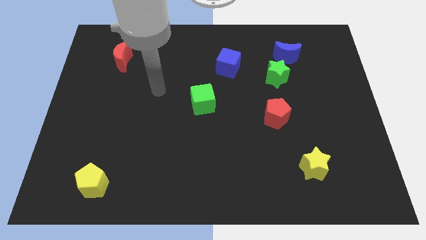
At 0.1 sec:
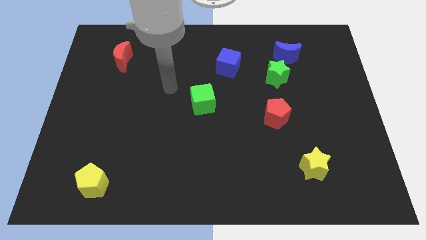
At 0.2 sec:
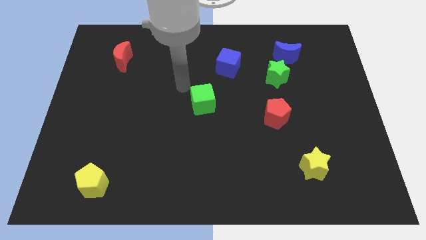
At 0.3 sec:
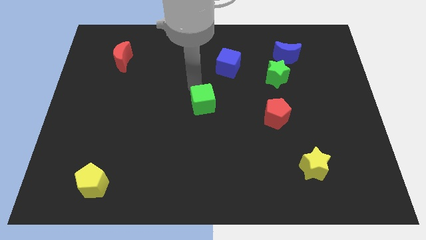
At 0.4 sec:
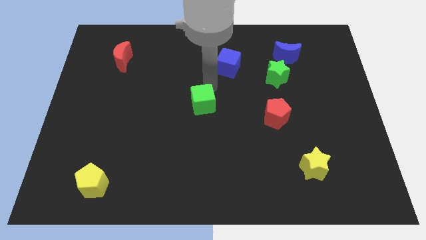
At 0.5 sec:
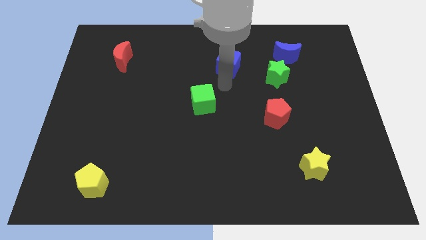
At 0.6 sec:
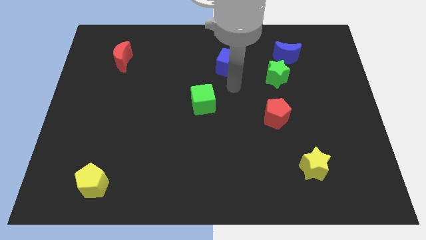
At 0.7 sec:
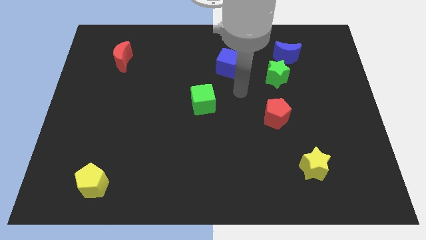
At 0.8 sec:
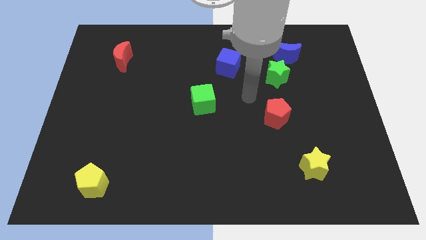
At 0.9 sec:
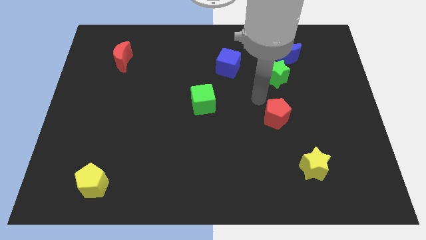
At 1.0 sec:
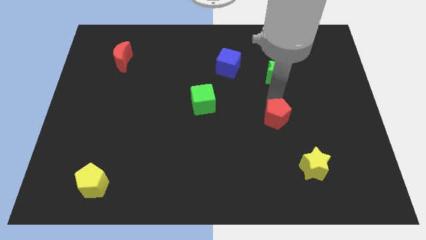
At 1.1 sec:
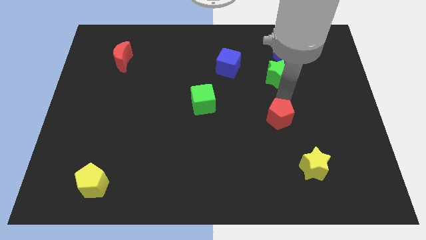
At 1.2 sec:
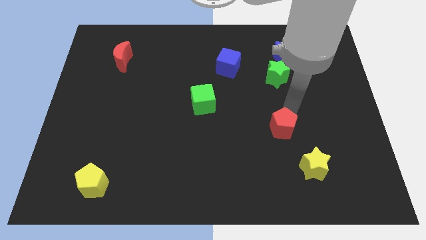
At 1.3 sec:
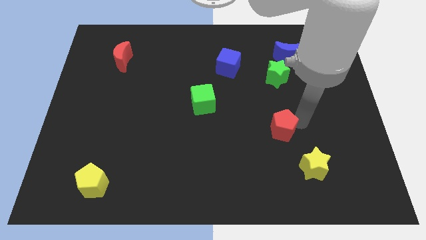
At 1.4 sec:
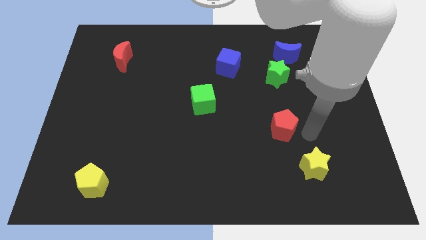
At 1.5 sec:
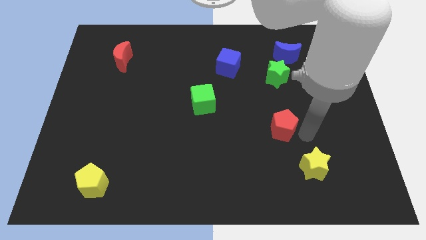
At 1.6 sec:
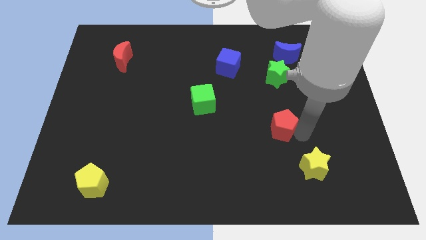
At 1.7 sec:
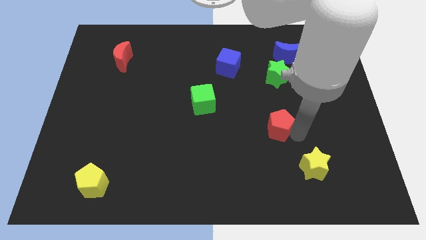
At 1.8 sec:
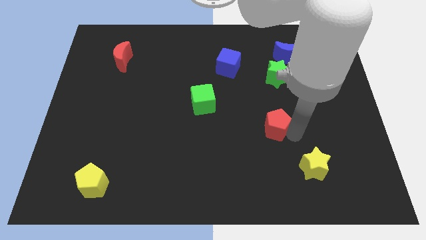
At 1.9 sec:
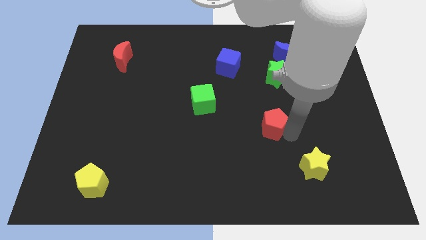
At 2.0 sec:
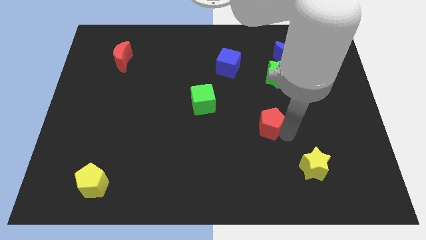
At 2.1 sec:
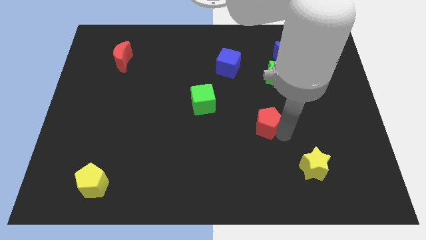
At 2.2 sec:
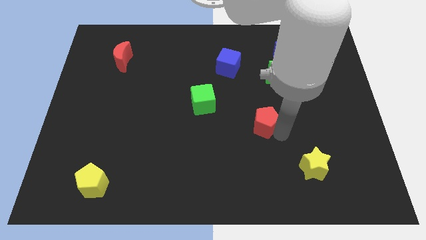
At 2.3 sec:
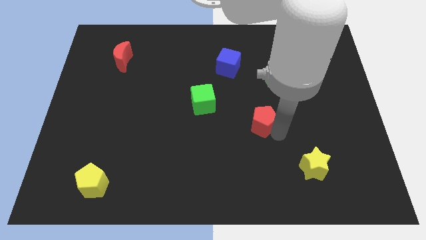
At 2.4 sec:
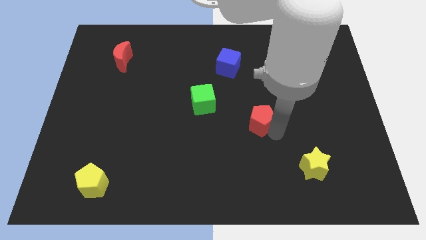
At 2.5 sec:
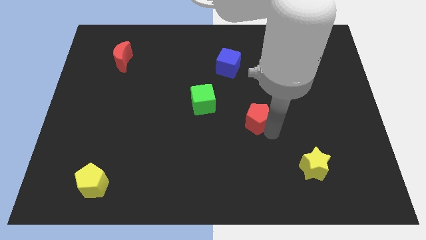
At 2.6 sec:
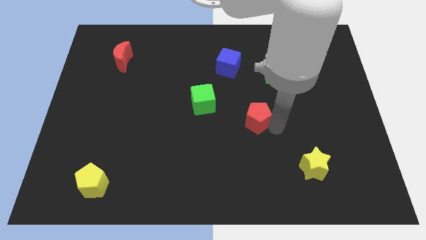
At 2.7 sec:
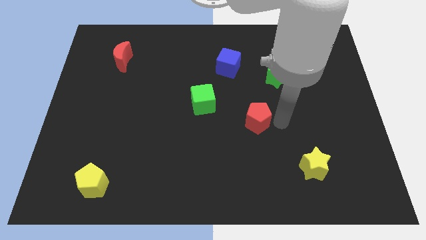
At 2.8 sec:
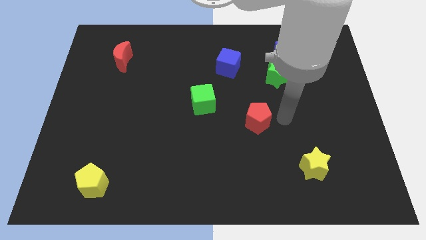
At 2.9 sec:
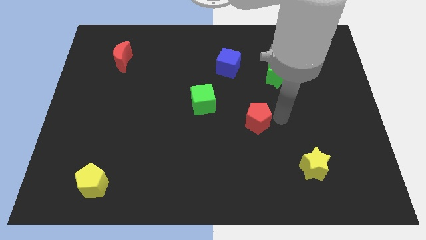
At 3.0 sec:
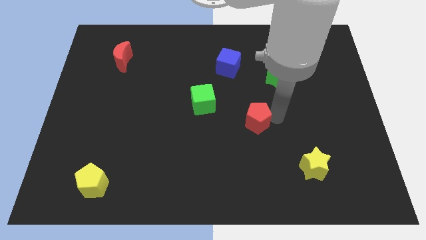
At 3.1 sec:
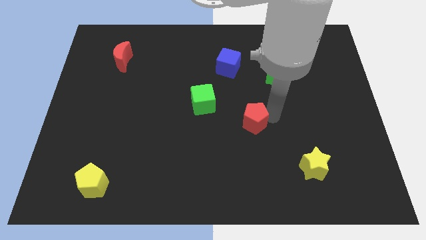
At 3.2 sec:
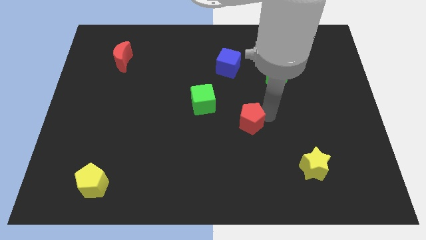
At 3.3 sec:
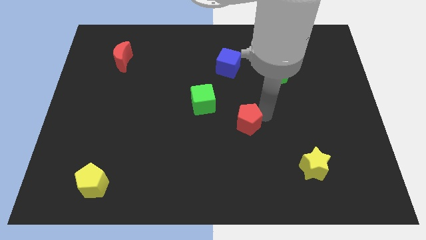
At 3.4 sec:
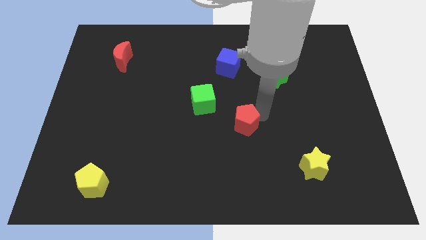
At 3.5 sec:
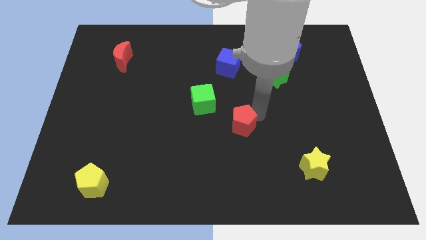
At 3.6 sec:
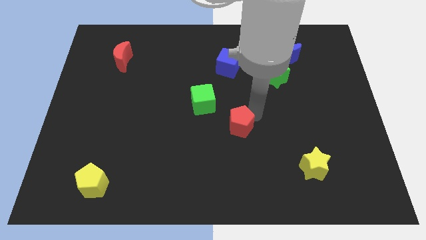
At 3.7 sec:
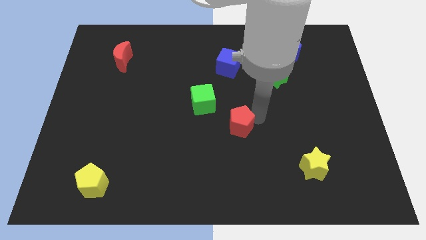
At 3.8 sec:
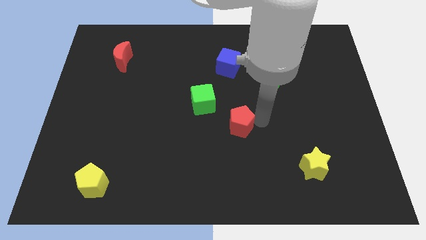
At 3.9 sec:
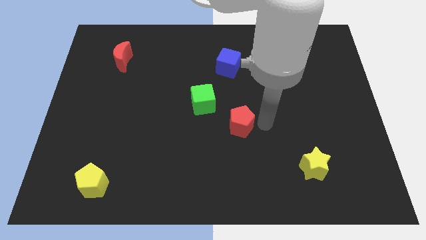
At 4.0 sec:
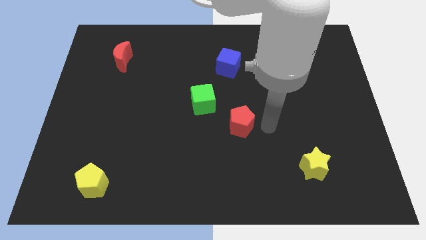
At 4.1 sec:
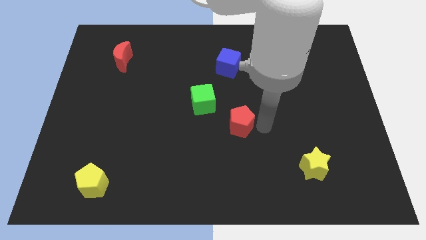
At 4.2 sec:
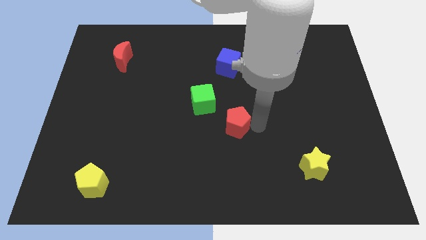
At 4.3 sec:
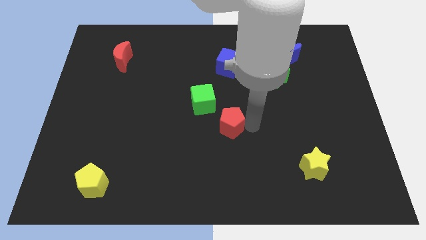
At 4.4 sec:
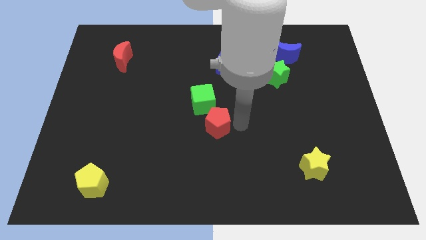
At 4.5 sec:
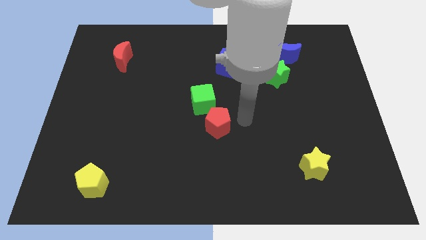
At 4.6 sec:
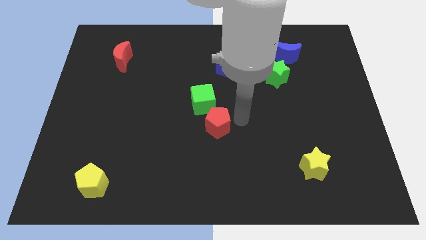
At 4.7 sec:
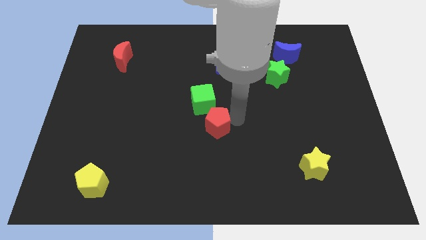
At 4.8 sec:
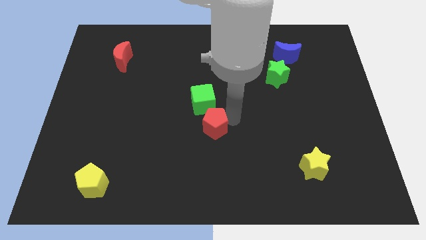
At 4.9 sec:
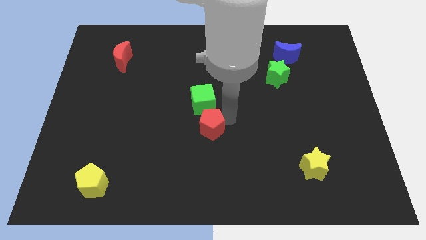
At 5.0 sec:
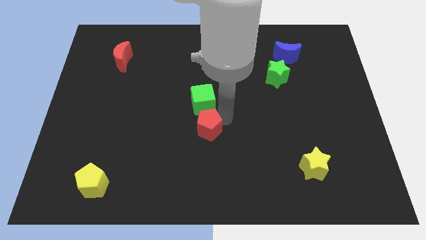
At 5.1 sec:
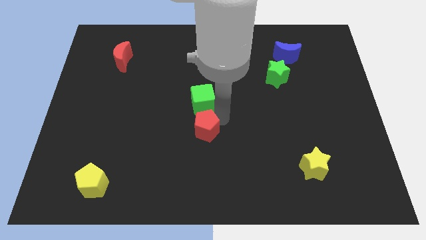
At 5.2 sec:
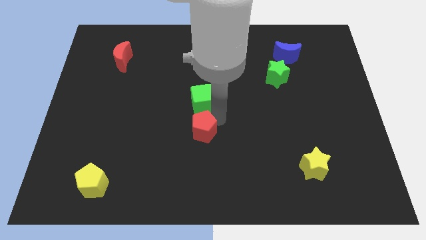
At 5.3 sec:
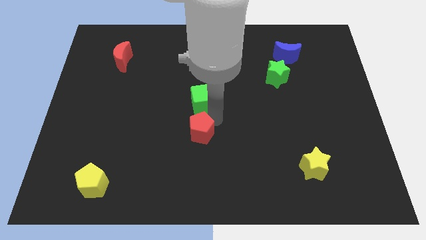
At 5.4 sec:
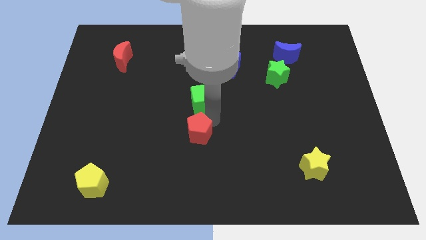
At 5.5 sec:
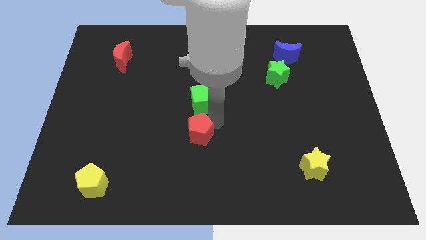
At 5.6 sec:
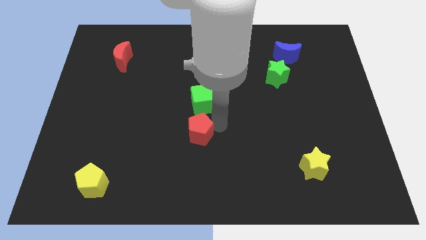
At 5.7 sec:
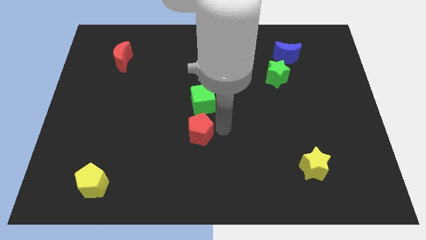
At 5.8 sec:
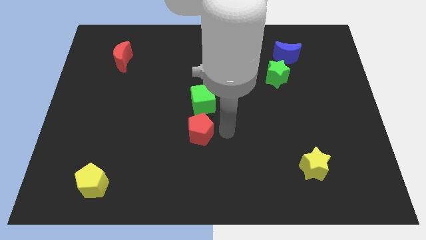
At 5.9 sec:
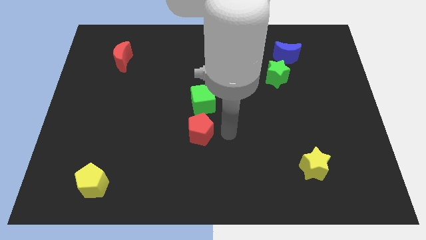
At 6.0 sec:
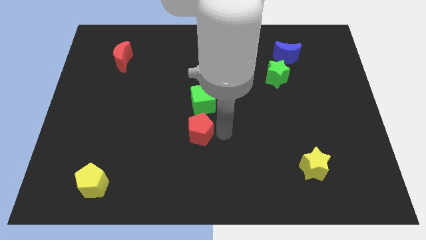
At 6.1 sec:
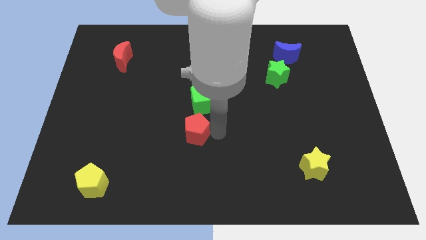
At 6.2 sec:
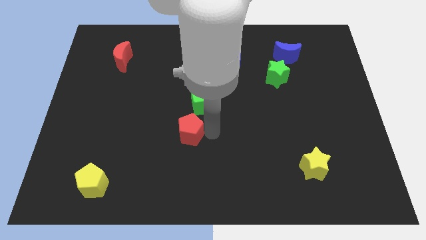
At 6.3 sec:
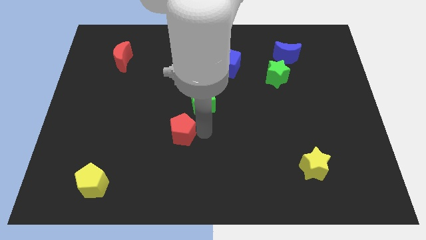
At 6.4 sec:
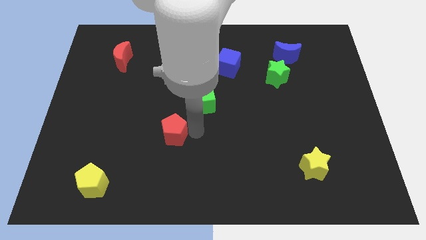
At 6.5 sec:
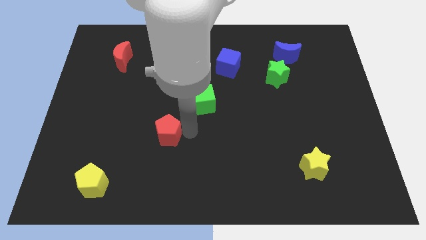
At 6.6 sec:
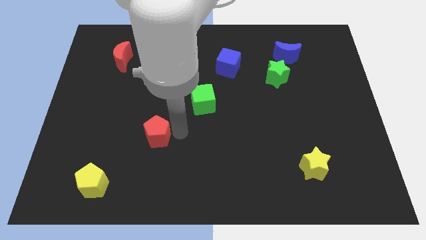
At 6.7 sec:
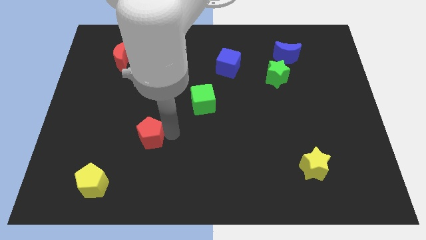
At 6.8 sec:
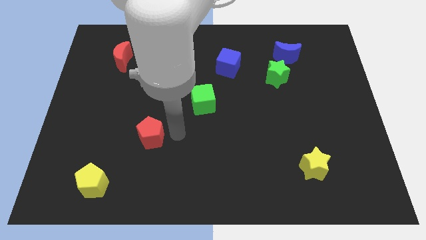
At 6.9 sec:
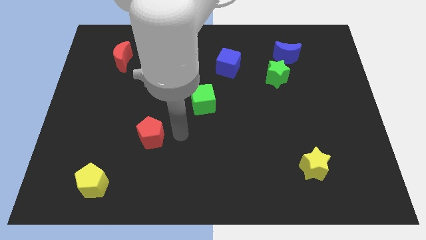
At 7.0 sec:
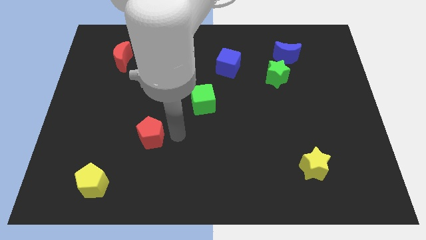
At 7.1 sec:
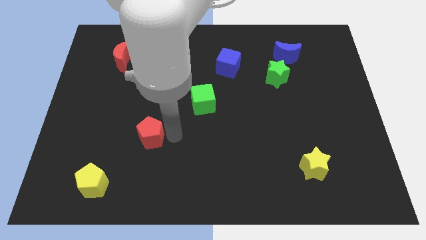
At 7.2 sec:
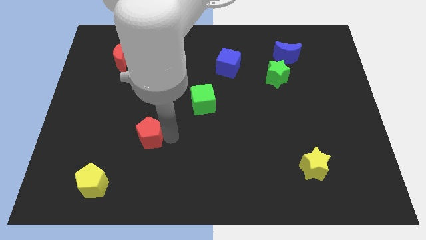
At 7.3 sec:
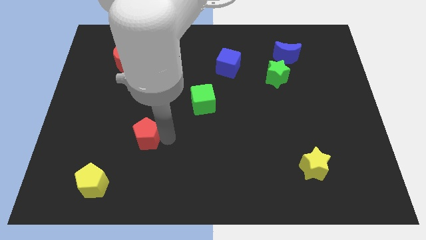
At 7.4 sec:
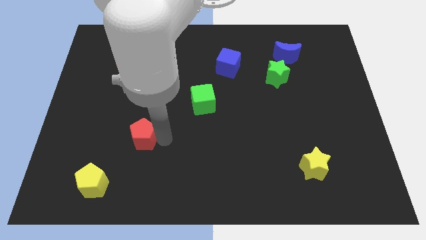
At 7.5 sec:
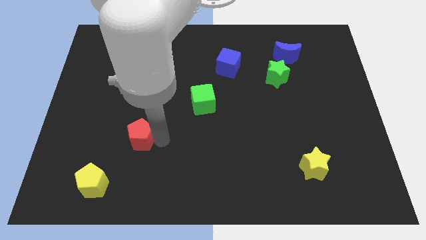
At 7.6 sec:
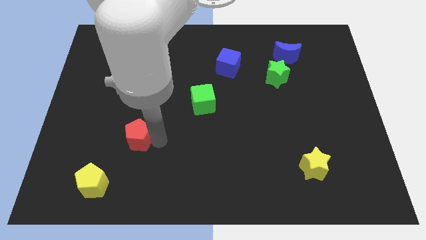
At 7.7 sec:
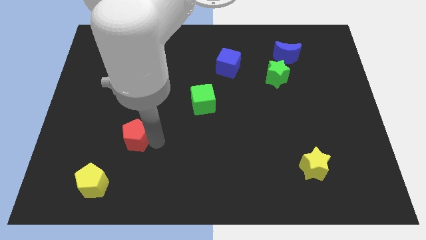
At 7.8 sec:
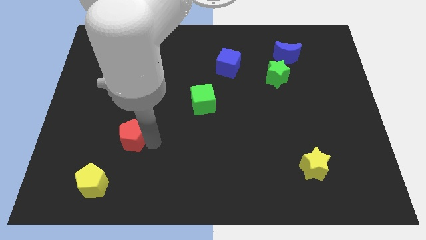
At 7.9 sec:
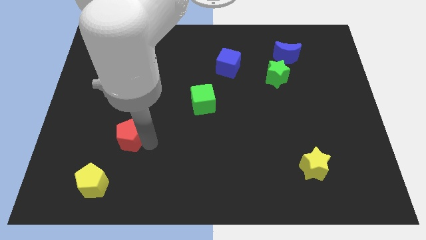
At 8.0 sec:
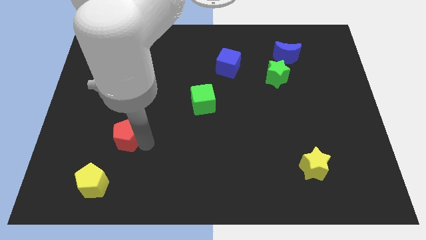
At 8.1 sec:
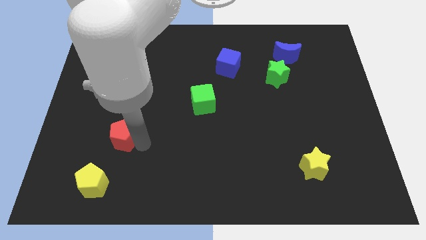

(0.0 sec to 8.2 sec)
put the red pentagon to the top side of the yellow pentagon
